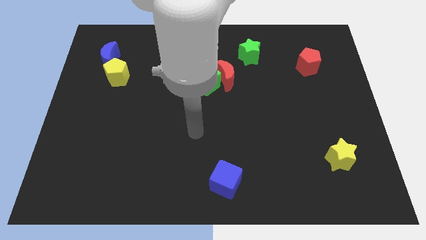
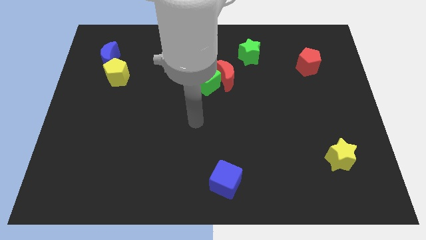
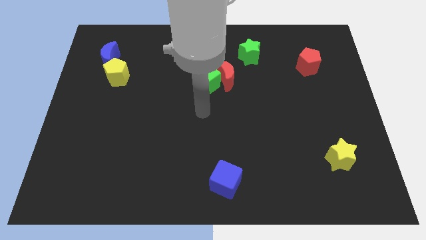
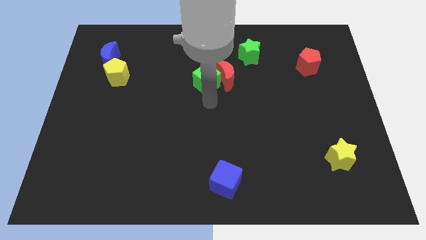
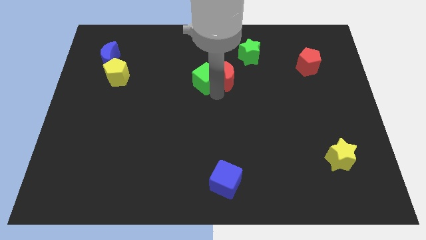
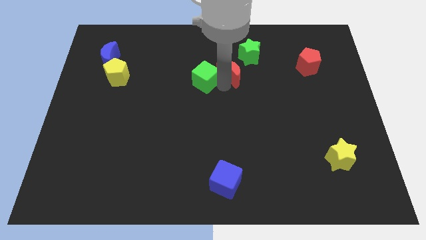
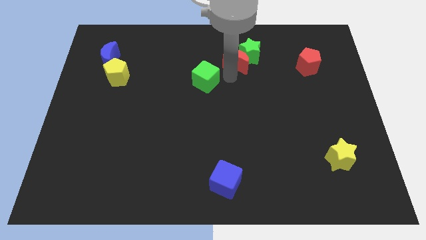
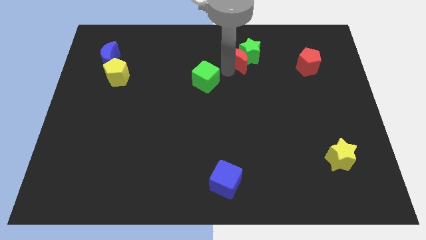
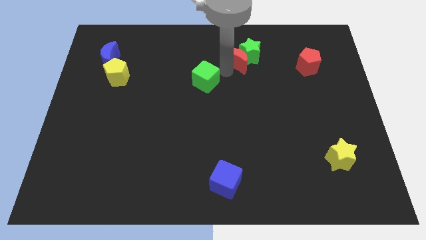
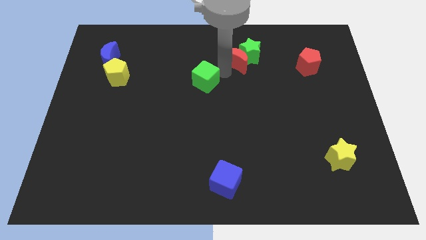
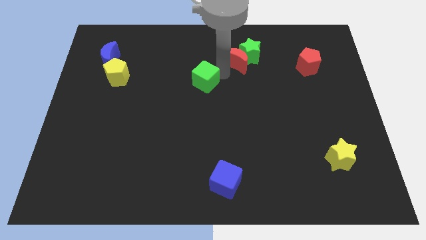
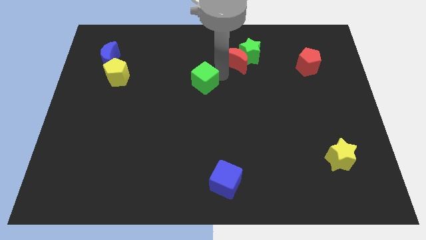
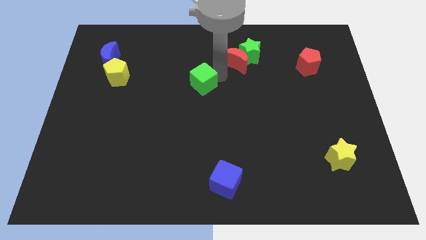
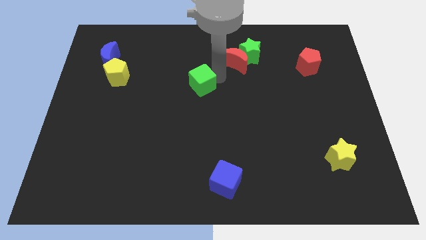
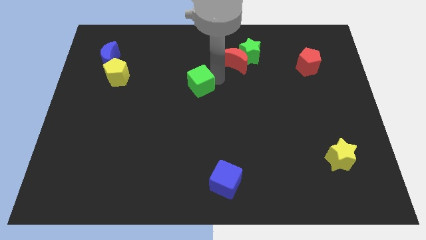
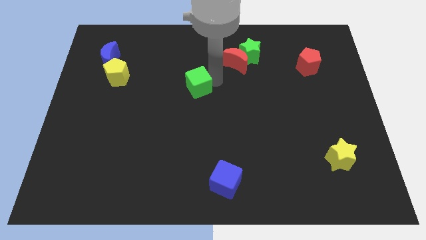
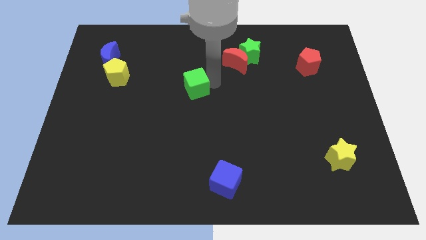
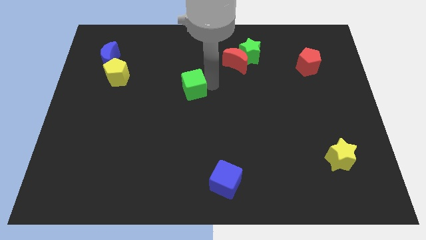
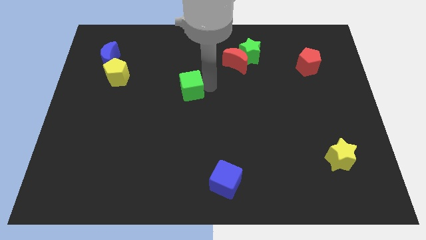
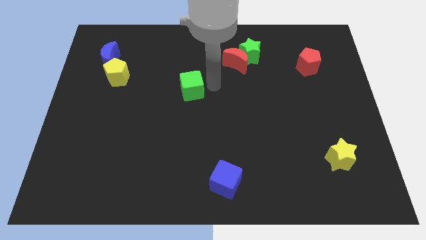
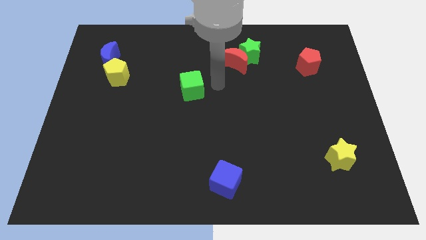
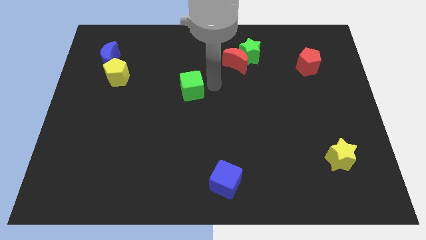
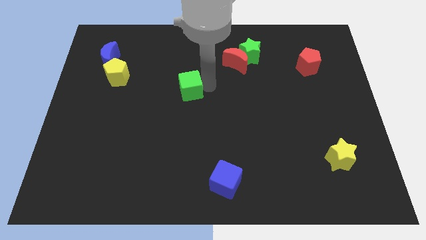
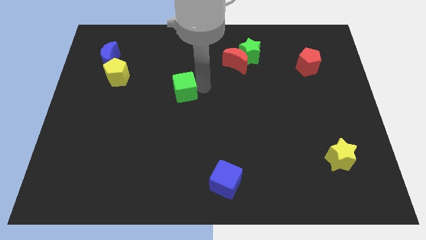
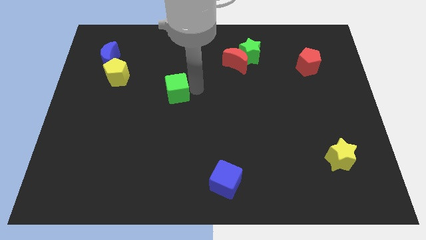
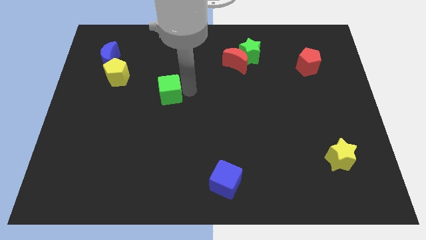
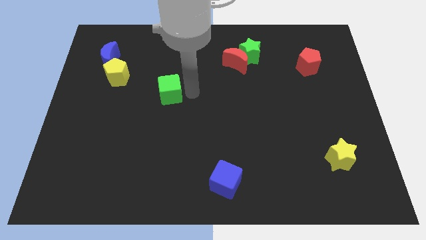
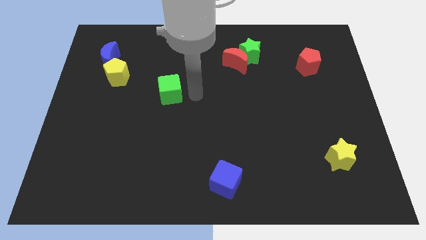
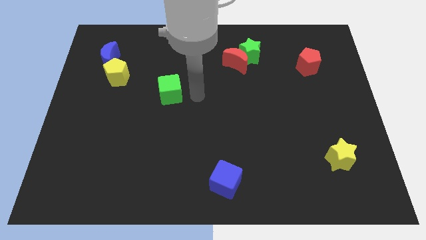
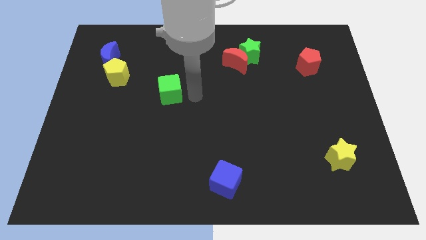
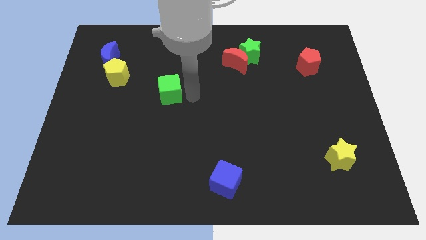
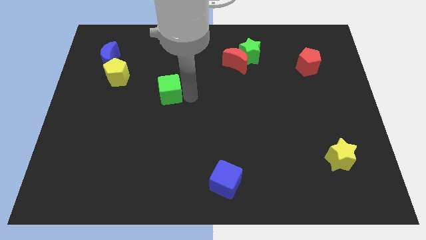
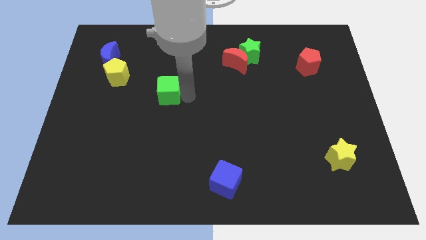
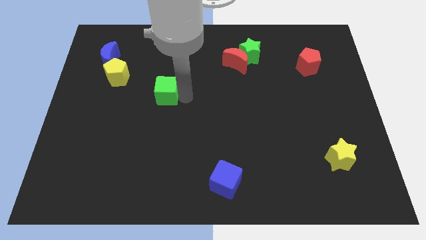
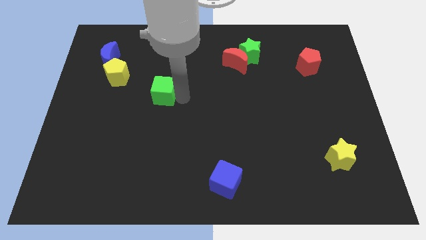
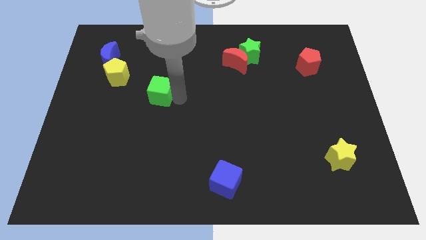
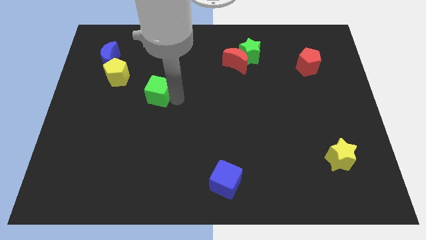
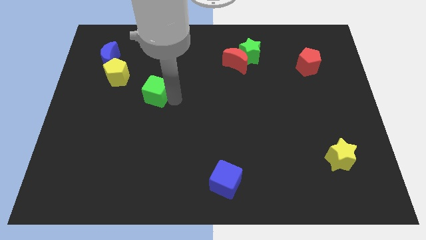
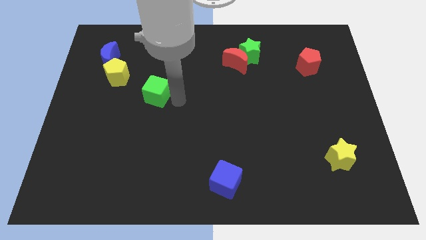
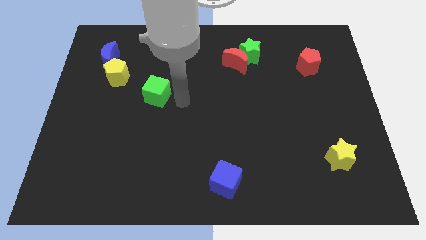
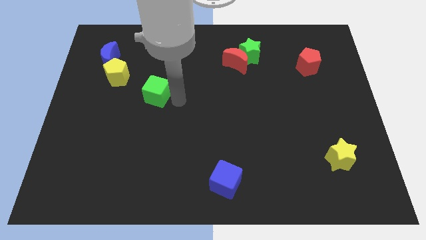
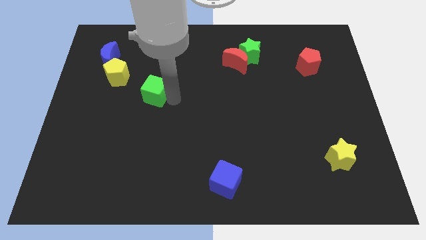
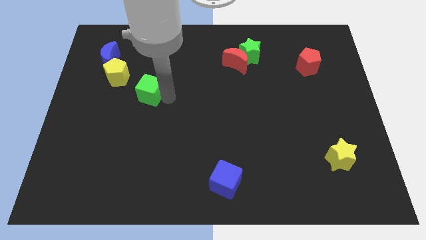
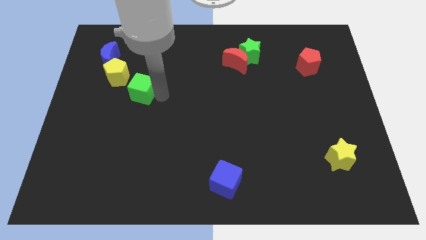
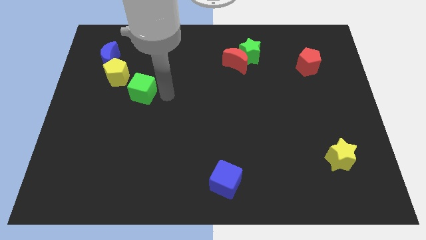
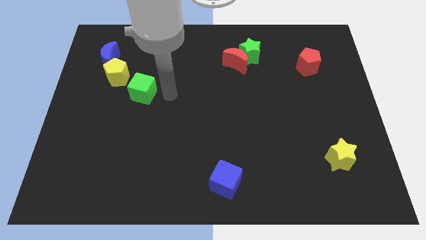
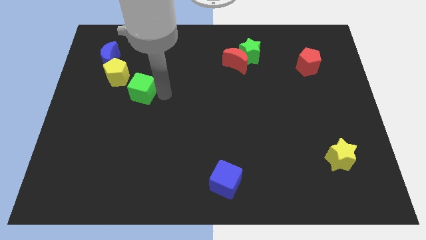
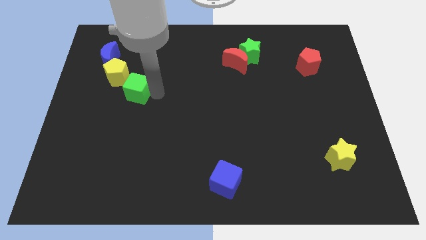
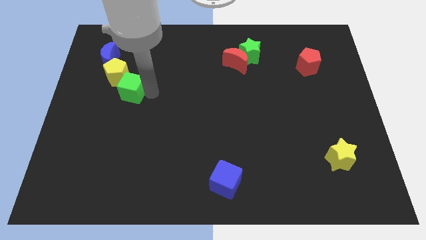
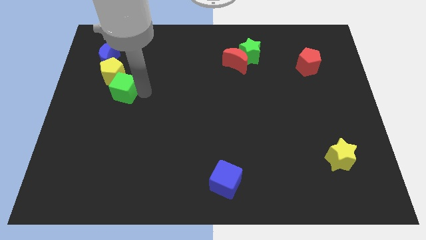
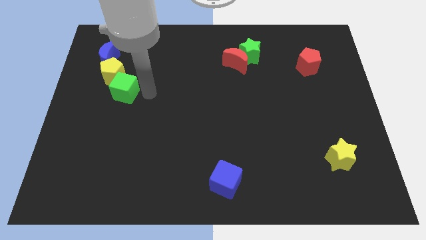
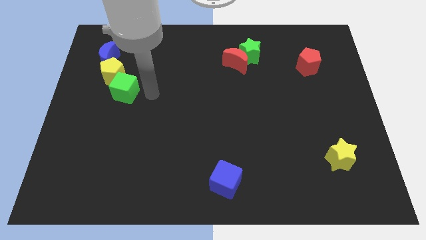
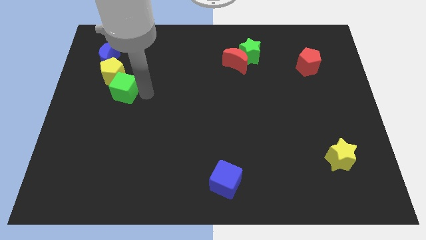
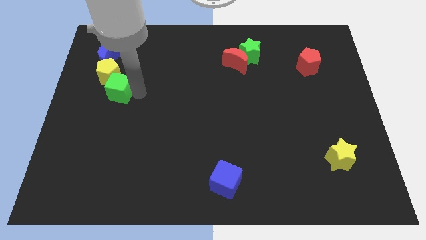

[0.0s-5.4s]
put the green cube to the bottom side of the blue moon

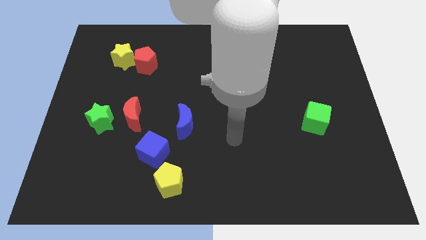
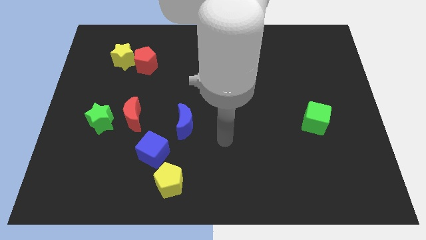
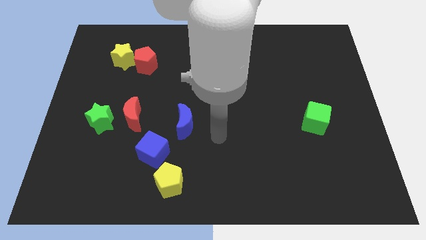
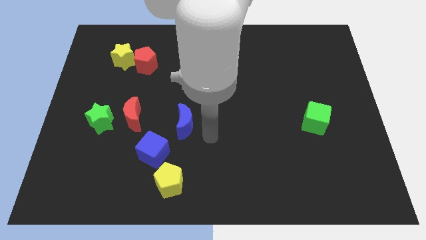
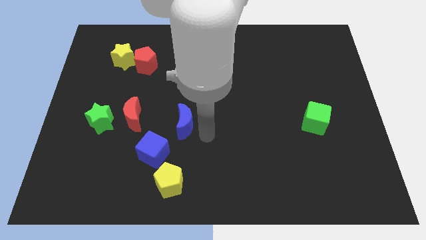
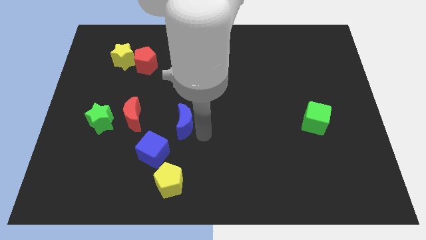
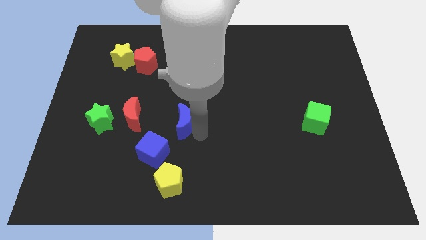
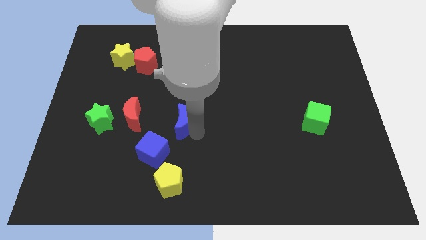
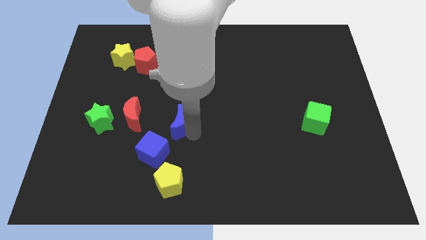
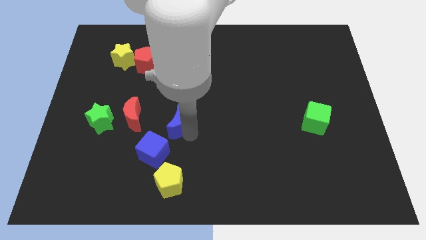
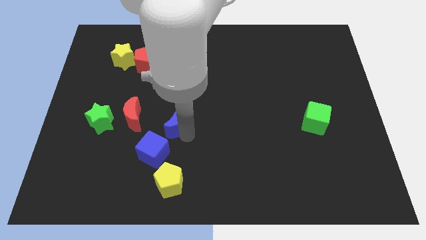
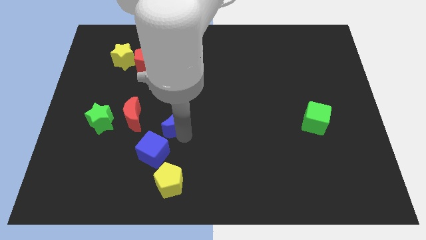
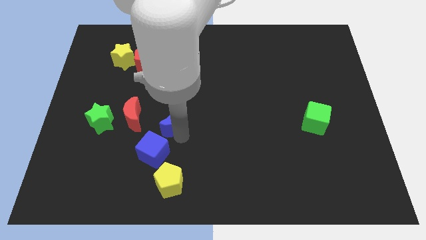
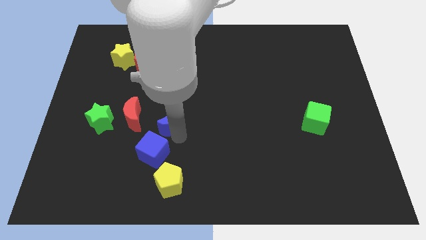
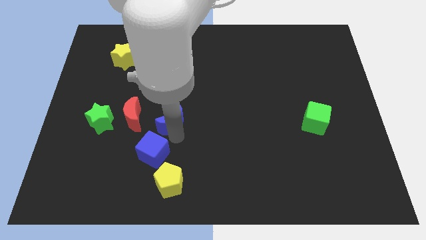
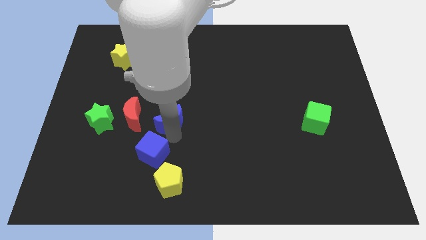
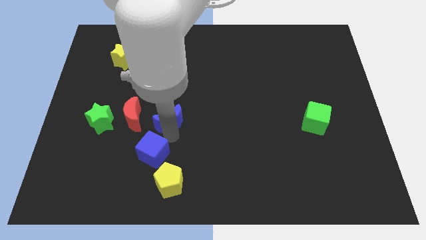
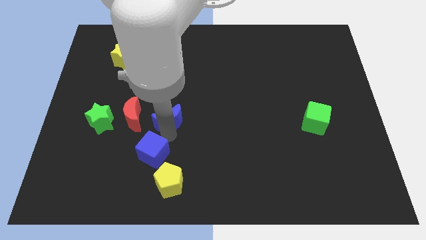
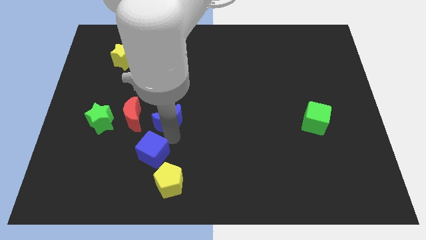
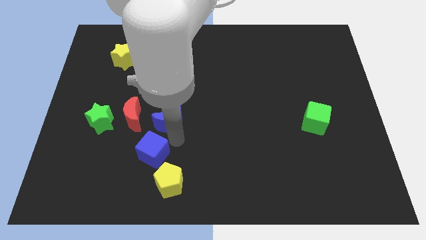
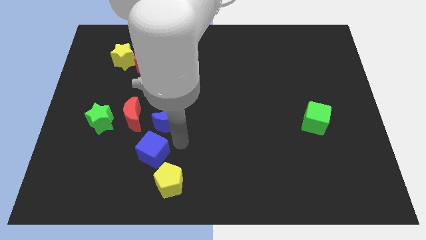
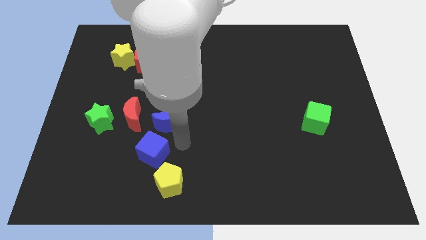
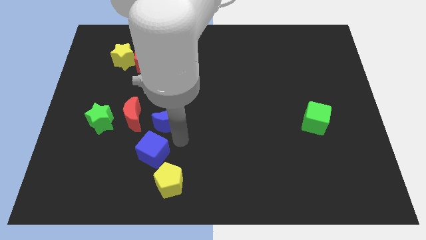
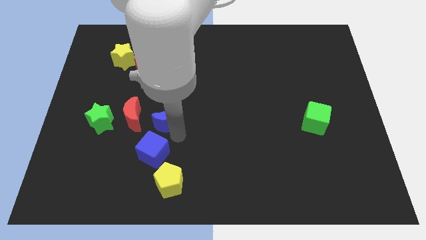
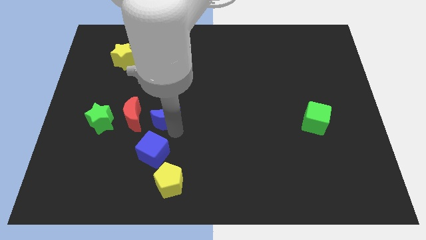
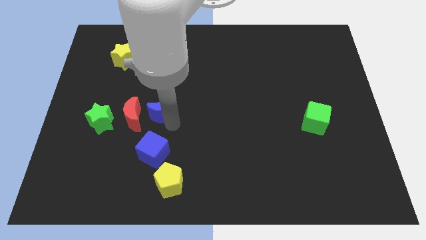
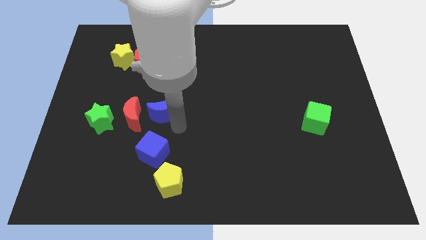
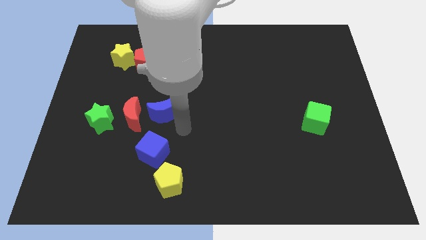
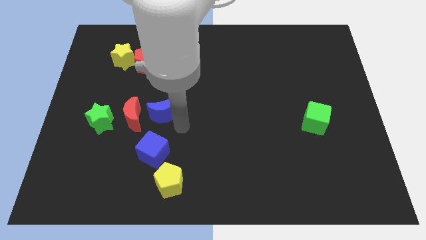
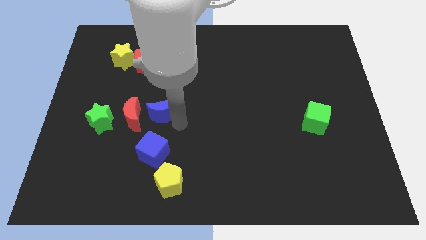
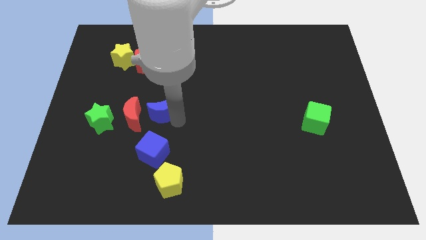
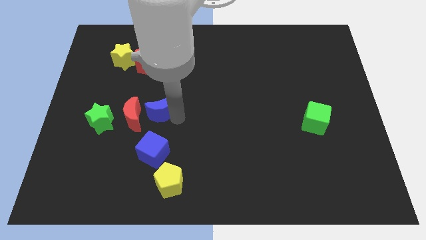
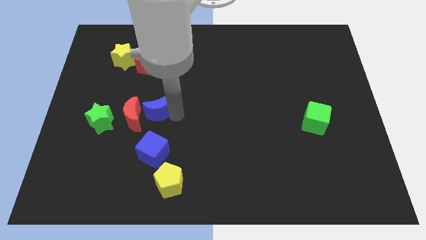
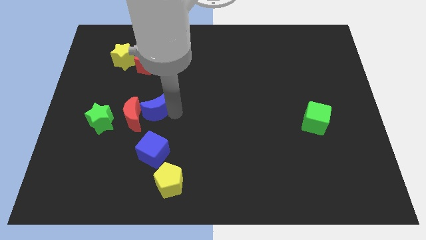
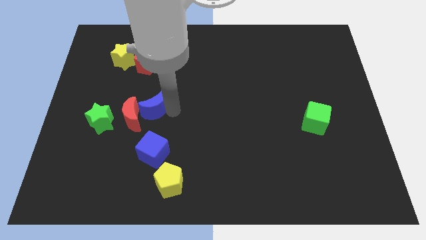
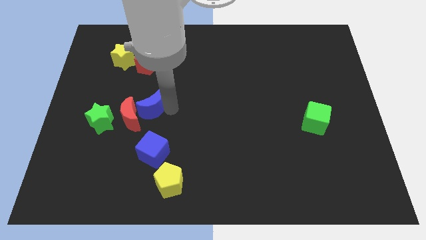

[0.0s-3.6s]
move the blue moon to the bottom side of the red pentagon
